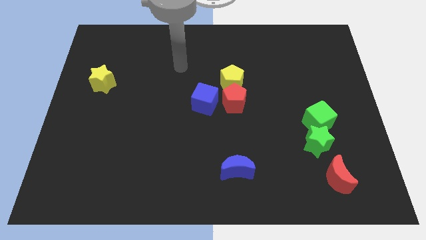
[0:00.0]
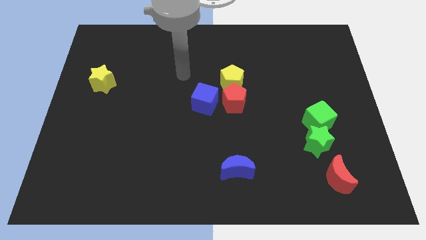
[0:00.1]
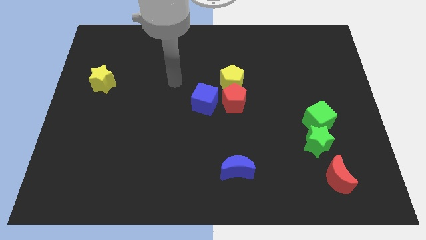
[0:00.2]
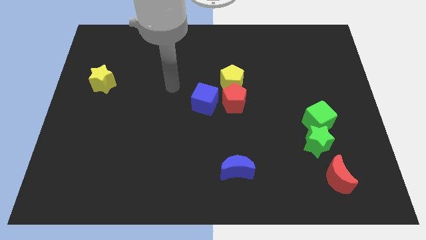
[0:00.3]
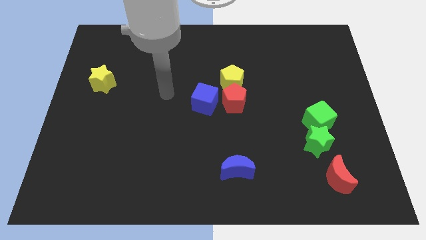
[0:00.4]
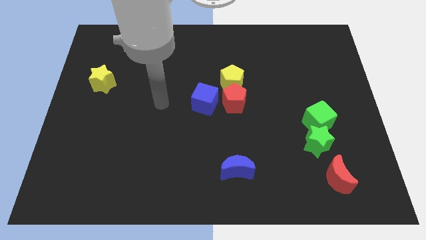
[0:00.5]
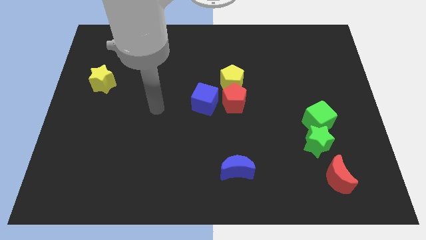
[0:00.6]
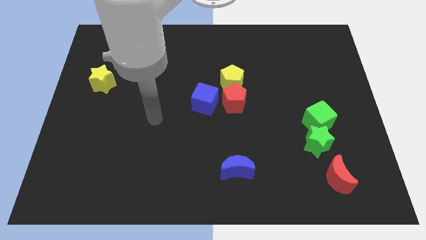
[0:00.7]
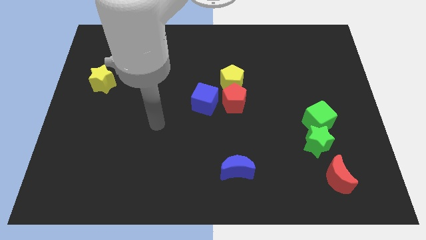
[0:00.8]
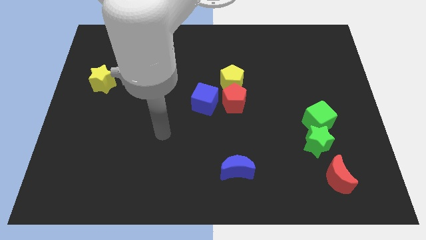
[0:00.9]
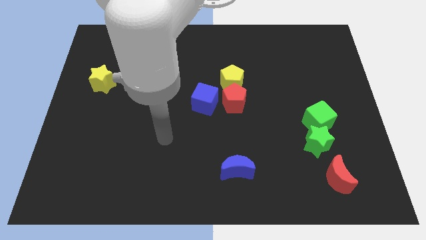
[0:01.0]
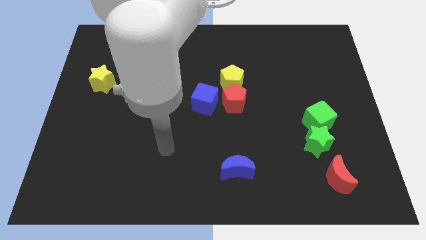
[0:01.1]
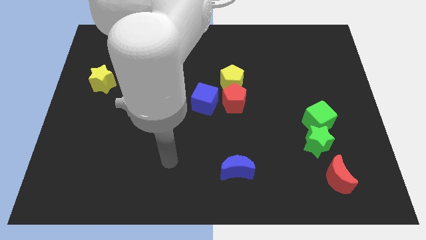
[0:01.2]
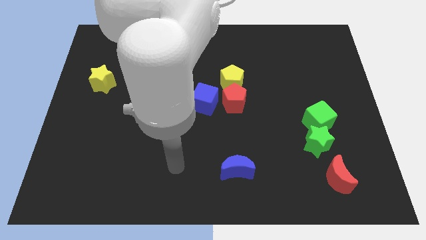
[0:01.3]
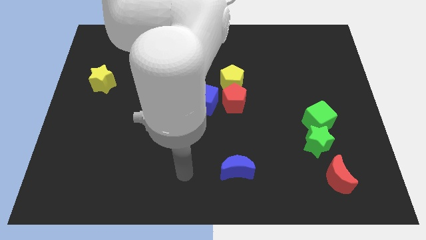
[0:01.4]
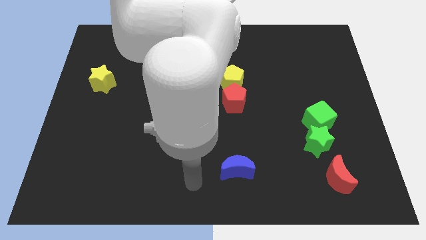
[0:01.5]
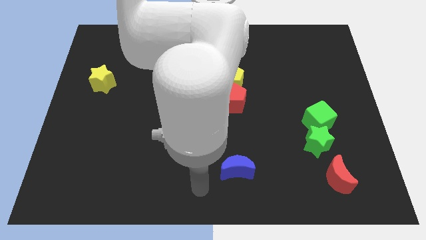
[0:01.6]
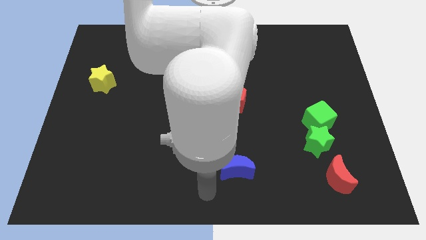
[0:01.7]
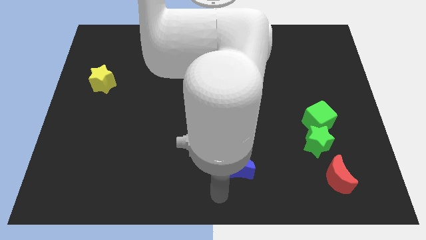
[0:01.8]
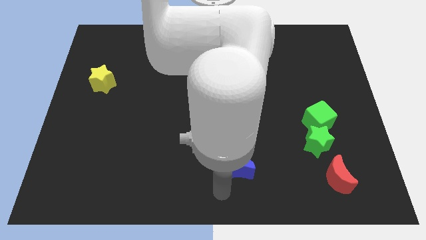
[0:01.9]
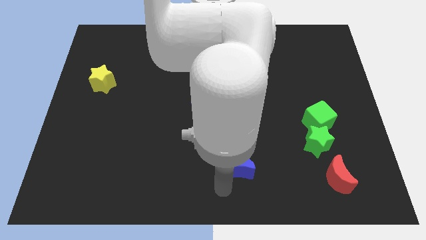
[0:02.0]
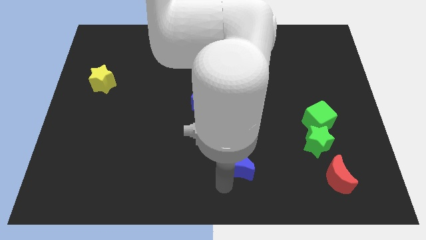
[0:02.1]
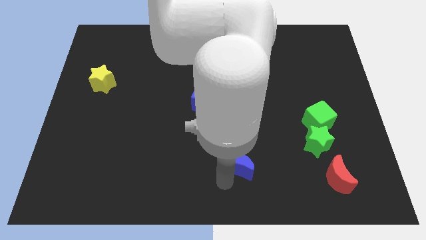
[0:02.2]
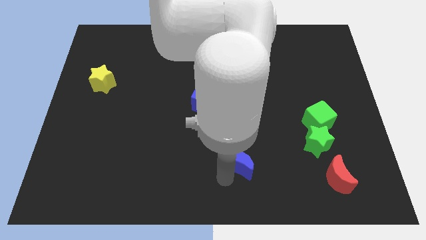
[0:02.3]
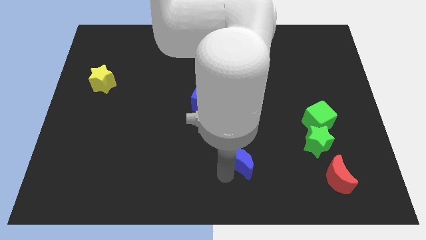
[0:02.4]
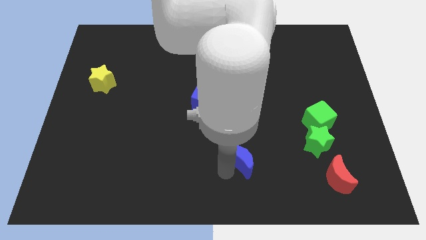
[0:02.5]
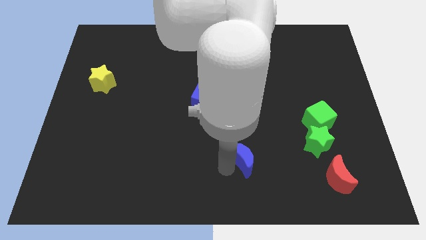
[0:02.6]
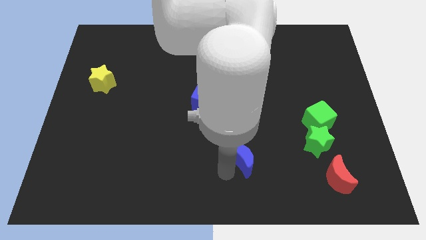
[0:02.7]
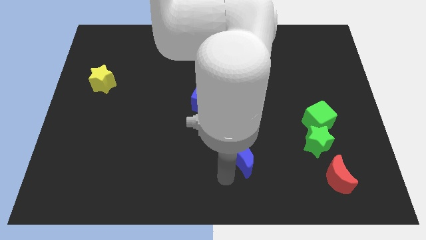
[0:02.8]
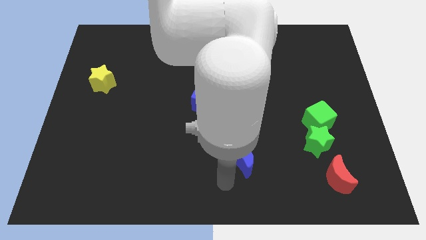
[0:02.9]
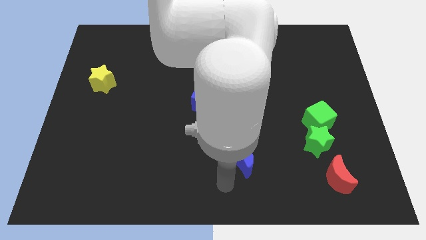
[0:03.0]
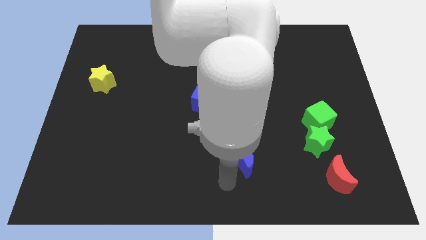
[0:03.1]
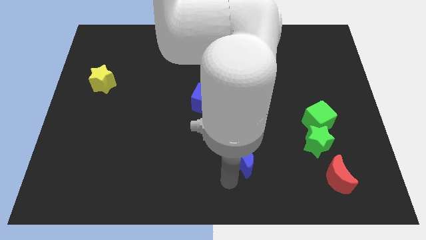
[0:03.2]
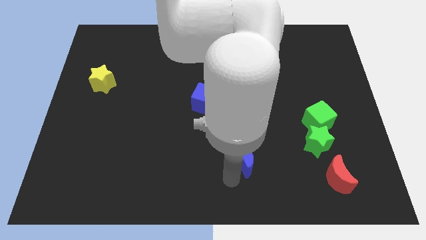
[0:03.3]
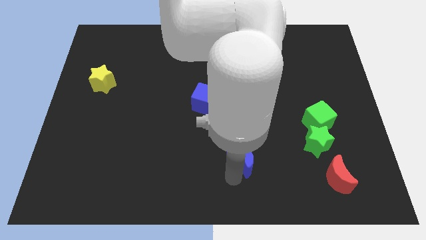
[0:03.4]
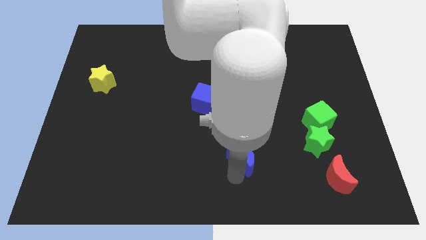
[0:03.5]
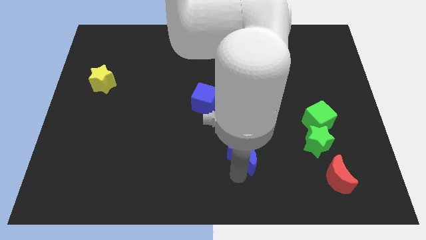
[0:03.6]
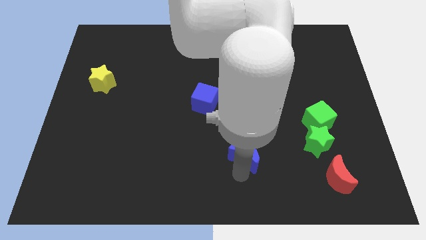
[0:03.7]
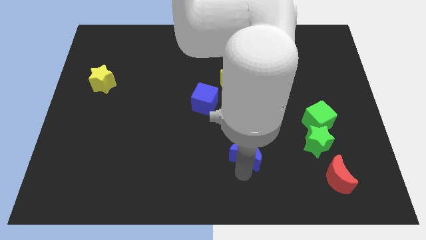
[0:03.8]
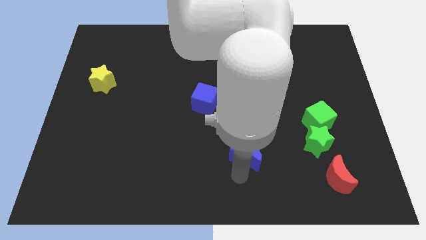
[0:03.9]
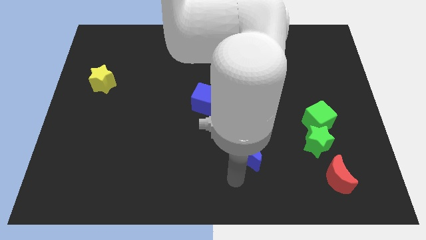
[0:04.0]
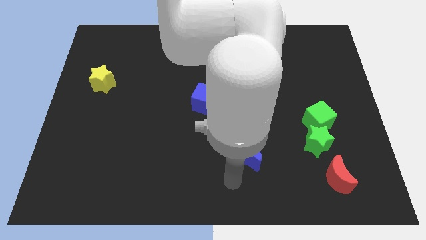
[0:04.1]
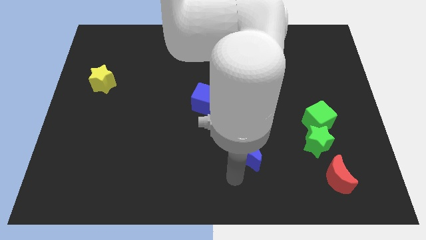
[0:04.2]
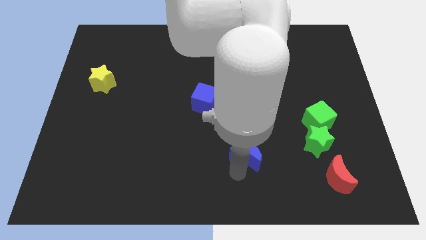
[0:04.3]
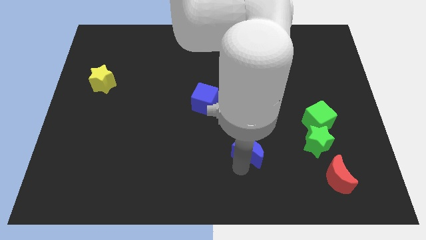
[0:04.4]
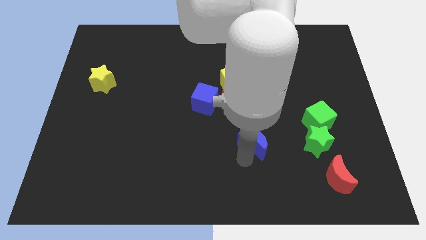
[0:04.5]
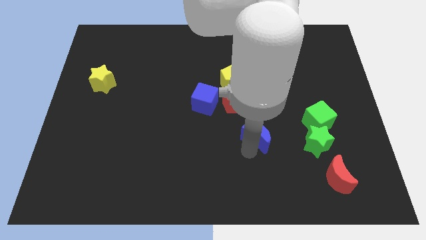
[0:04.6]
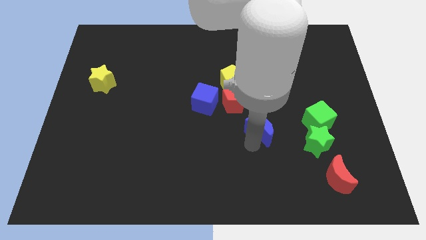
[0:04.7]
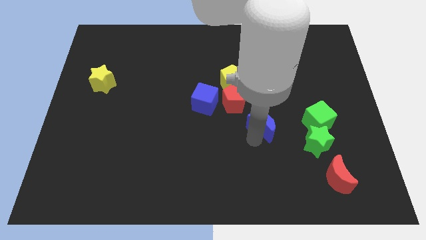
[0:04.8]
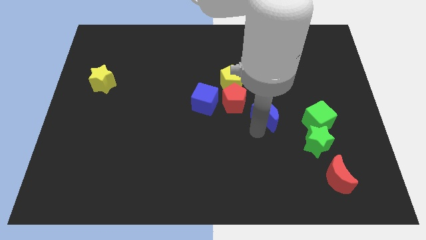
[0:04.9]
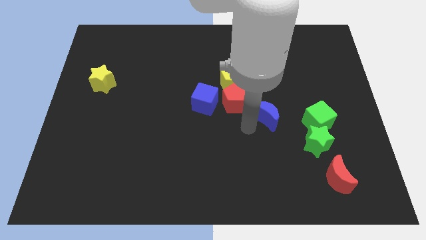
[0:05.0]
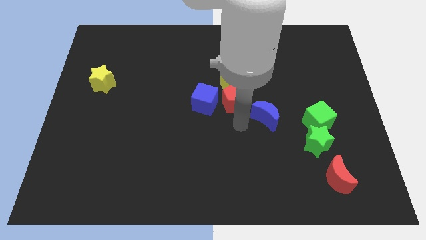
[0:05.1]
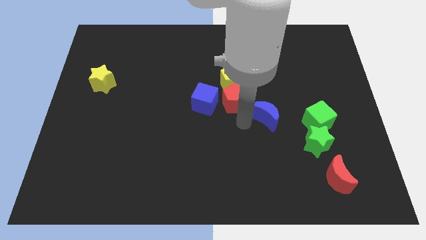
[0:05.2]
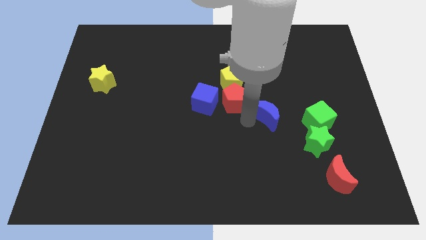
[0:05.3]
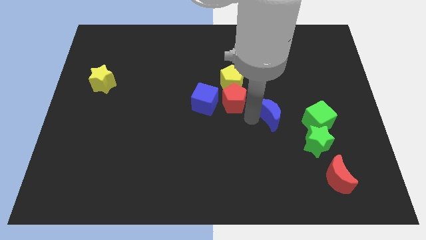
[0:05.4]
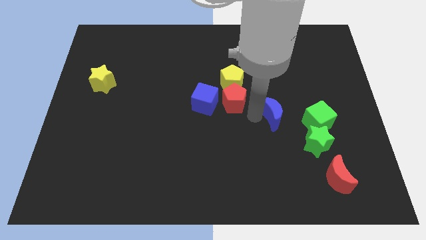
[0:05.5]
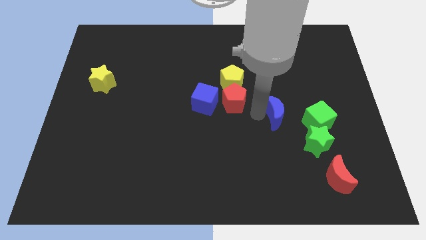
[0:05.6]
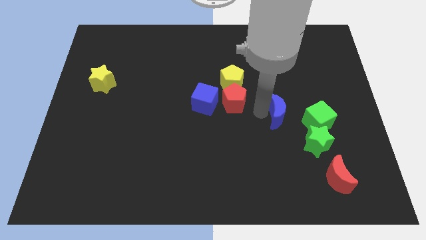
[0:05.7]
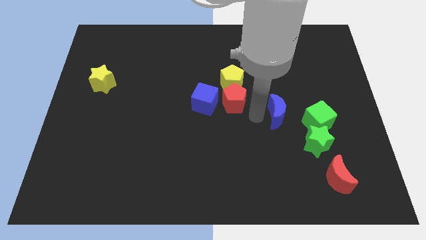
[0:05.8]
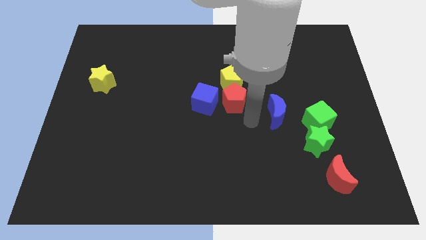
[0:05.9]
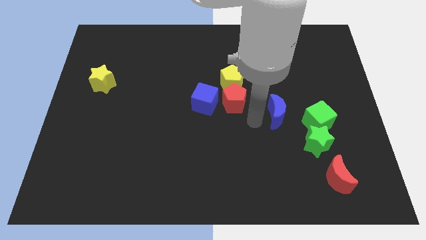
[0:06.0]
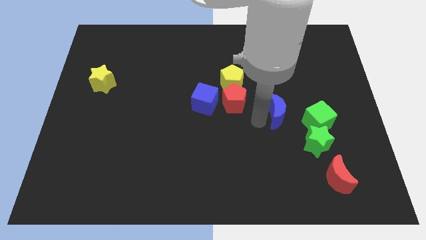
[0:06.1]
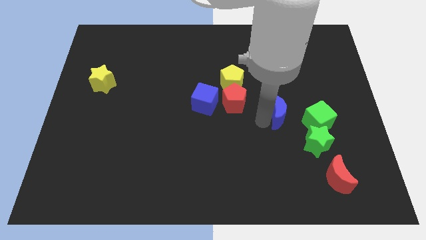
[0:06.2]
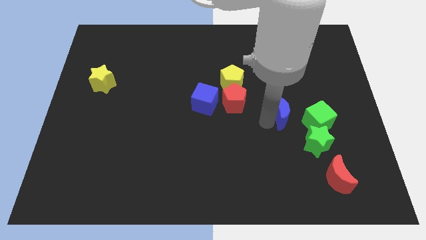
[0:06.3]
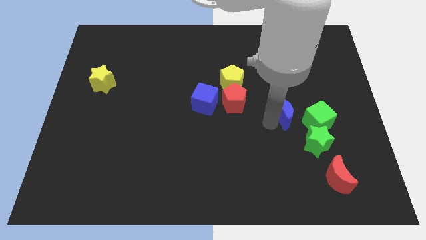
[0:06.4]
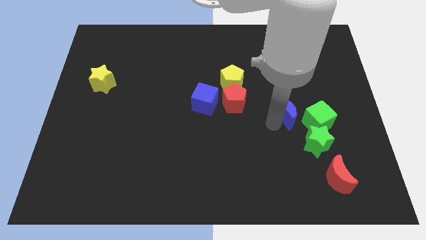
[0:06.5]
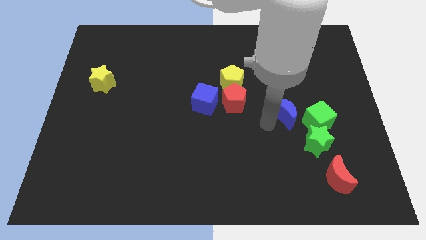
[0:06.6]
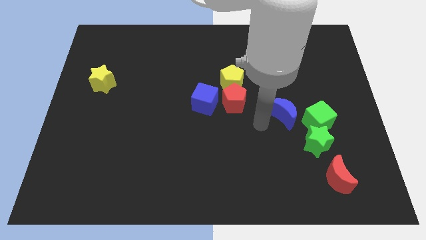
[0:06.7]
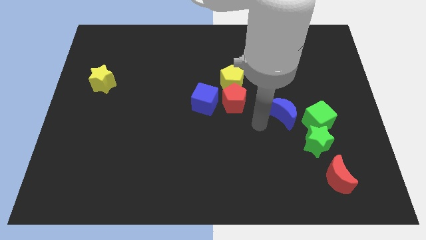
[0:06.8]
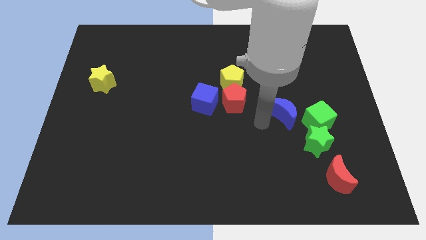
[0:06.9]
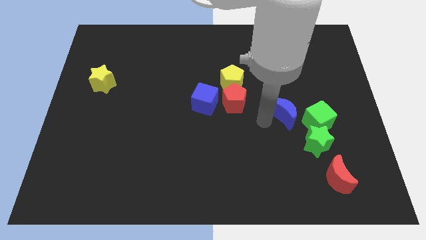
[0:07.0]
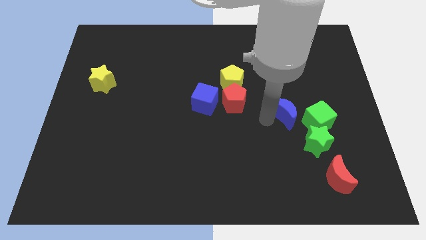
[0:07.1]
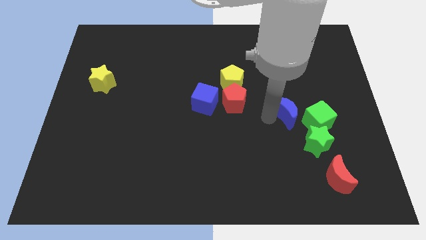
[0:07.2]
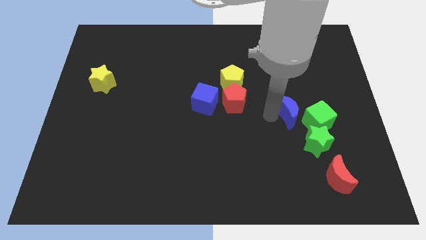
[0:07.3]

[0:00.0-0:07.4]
slide the blue moon above the green star

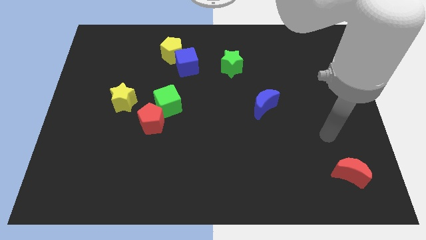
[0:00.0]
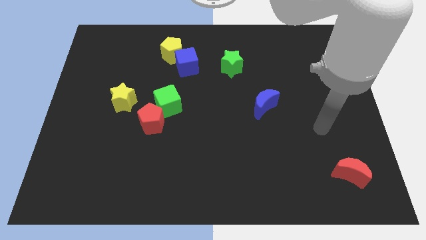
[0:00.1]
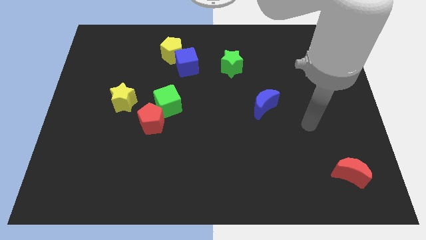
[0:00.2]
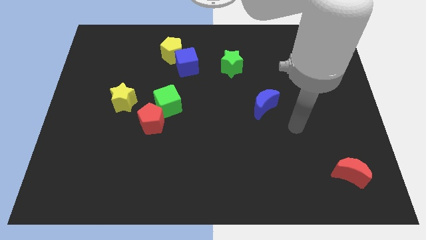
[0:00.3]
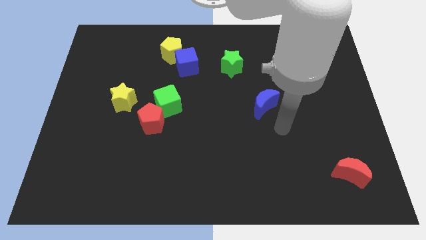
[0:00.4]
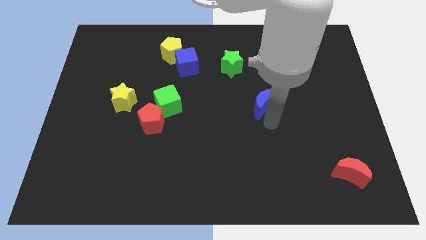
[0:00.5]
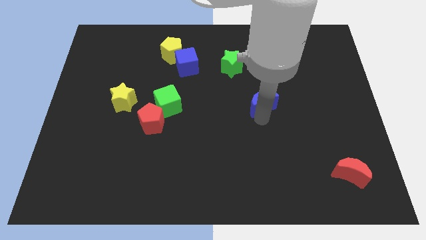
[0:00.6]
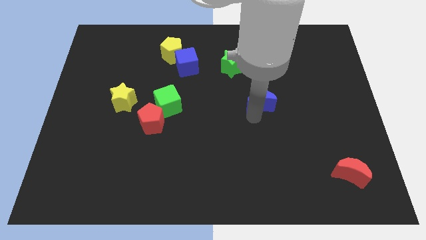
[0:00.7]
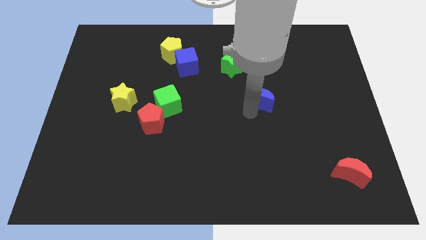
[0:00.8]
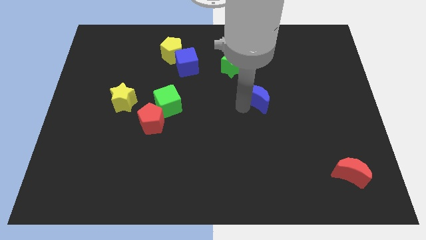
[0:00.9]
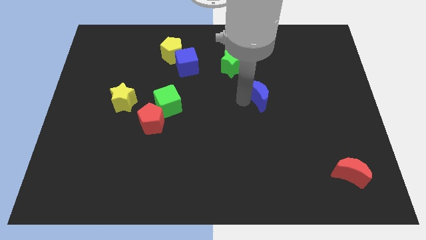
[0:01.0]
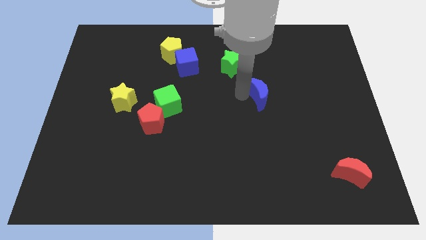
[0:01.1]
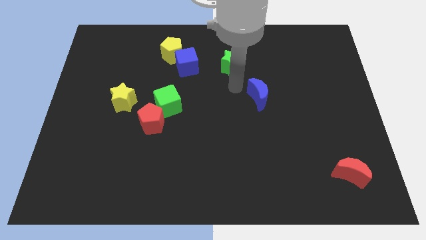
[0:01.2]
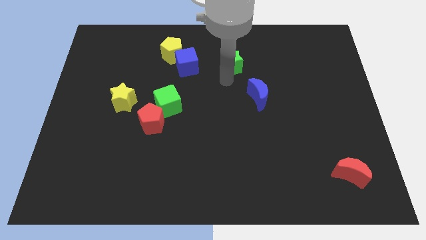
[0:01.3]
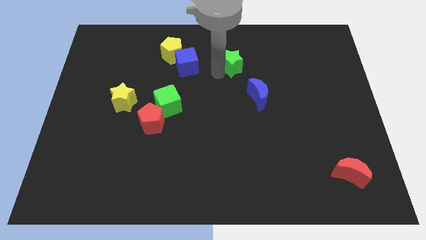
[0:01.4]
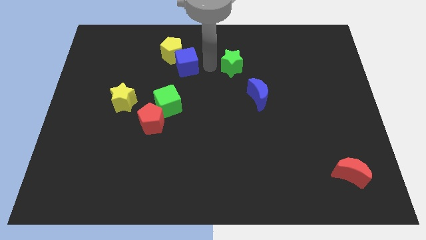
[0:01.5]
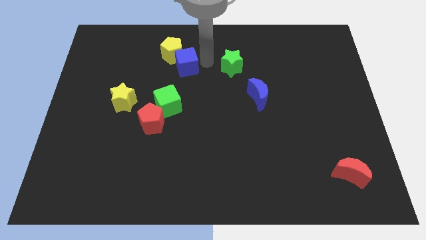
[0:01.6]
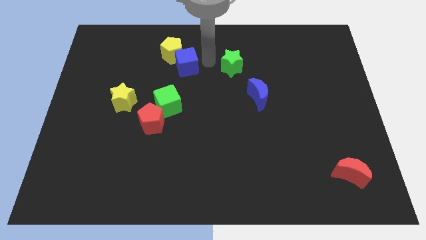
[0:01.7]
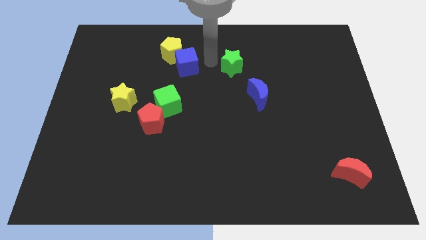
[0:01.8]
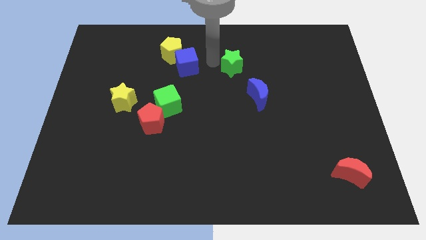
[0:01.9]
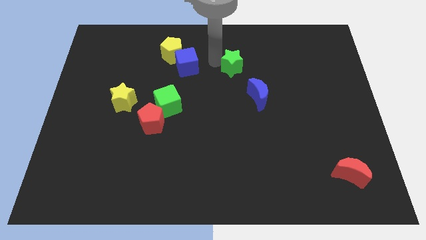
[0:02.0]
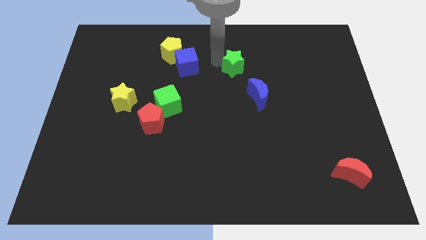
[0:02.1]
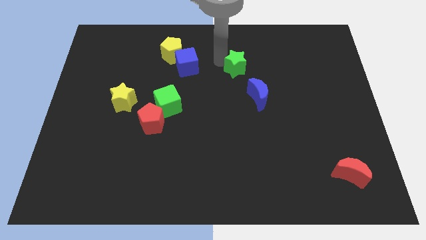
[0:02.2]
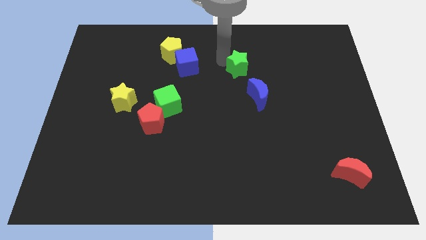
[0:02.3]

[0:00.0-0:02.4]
move the green star above the blue moon
